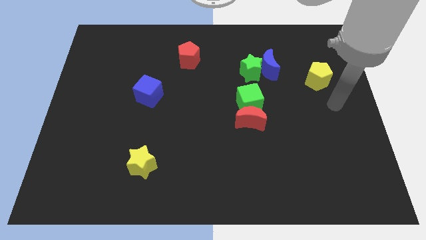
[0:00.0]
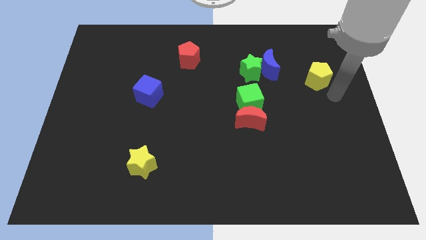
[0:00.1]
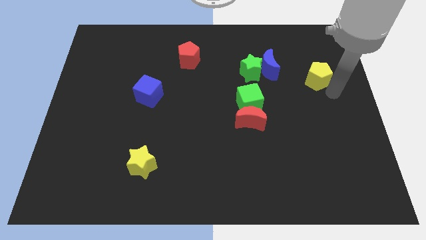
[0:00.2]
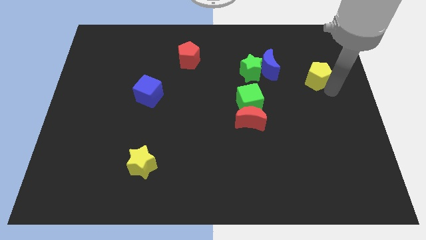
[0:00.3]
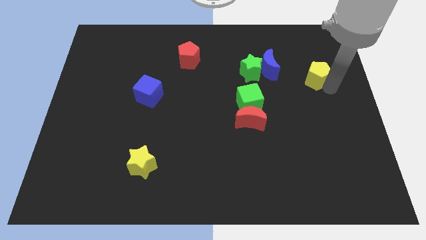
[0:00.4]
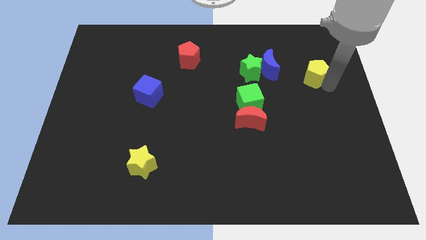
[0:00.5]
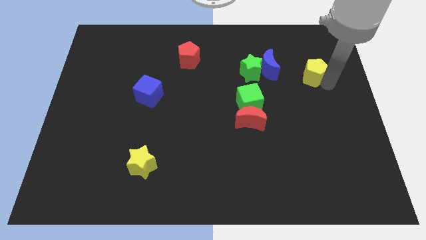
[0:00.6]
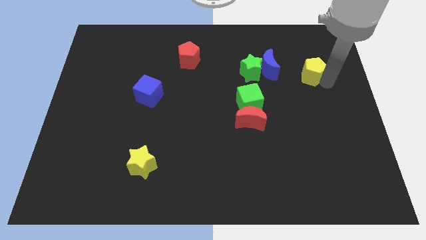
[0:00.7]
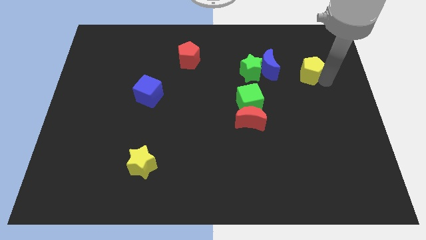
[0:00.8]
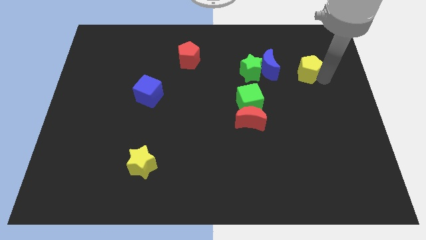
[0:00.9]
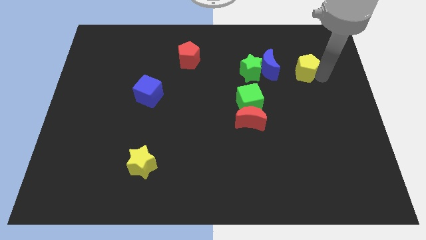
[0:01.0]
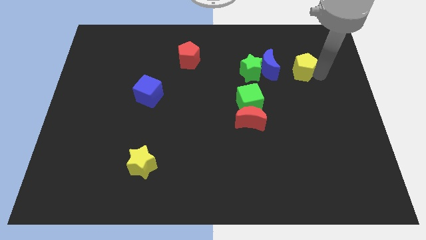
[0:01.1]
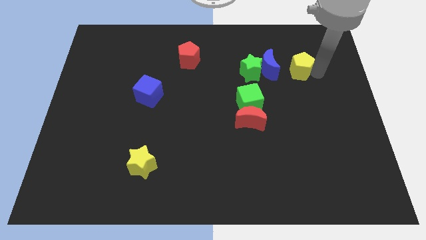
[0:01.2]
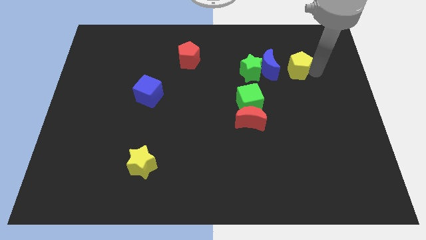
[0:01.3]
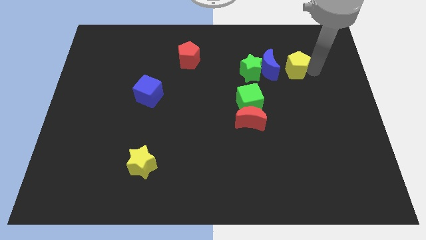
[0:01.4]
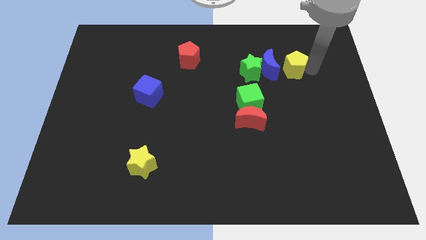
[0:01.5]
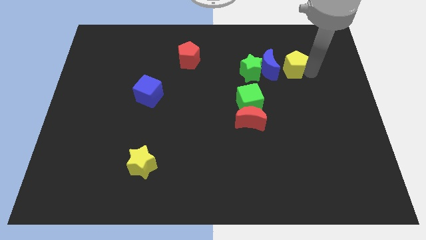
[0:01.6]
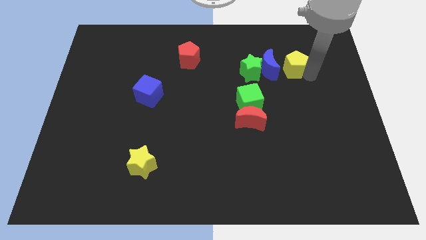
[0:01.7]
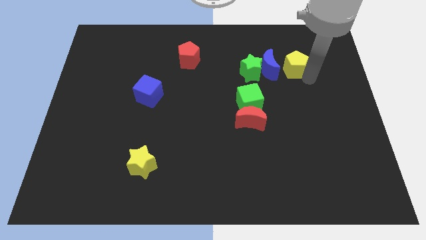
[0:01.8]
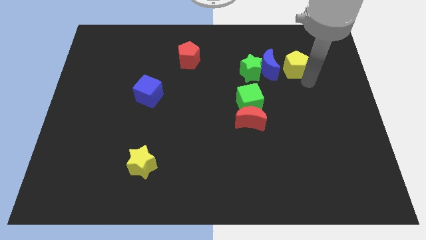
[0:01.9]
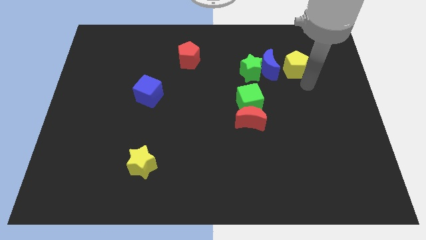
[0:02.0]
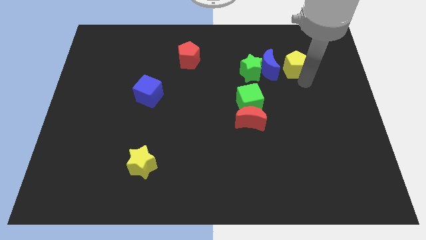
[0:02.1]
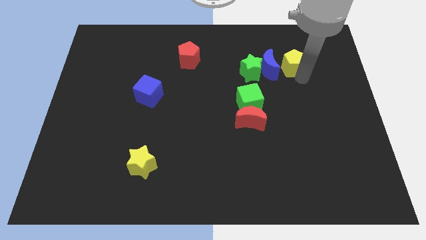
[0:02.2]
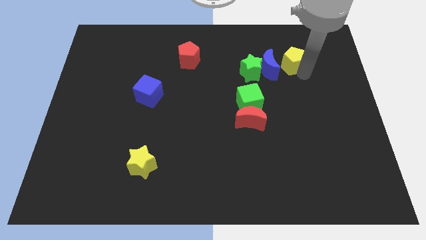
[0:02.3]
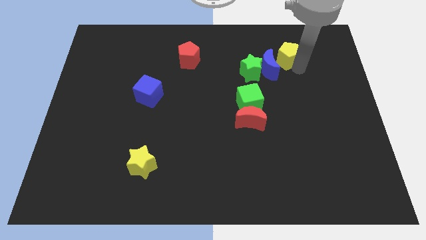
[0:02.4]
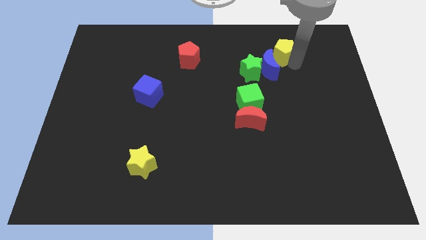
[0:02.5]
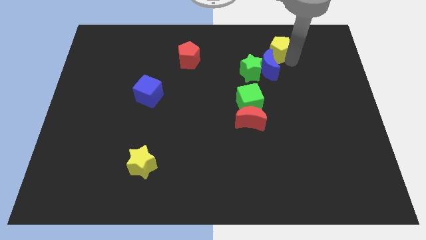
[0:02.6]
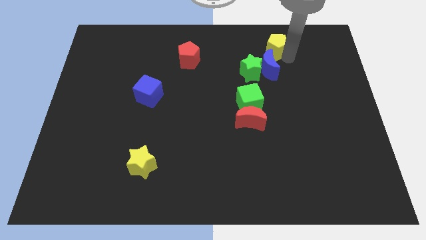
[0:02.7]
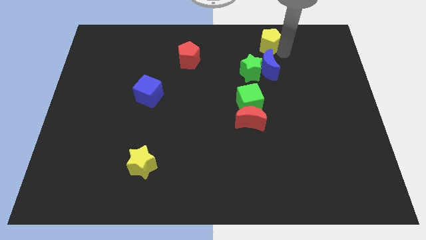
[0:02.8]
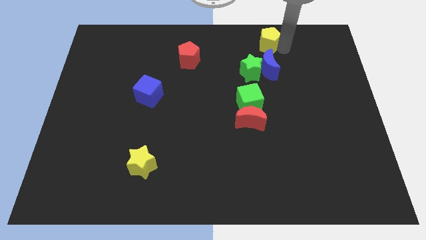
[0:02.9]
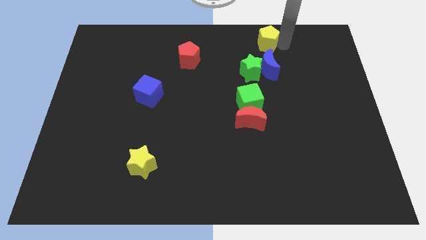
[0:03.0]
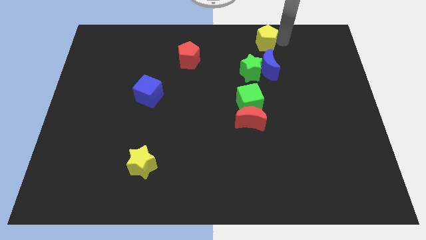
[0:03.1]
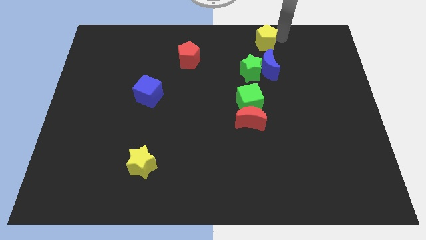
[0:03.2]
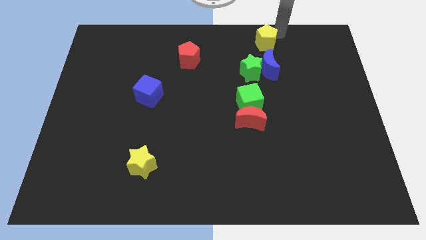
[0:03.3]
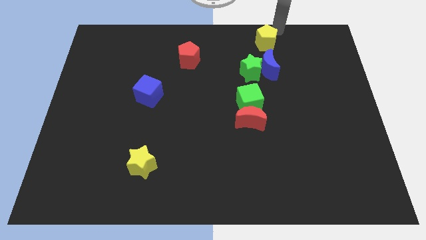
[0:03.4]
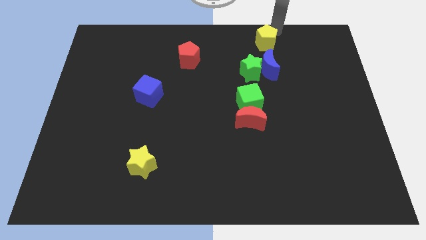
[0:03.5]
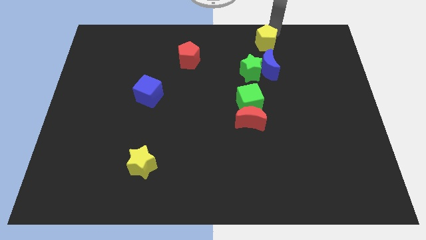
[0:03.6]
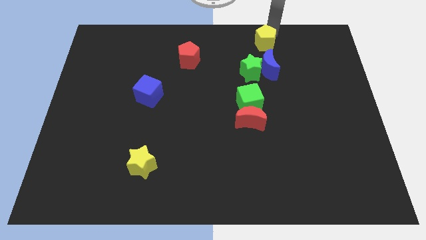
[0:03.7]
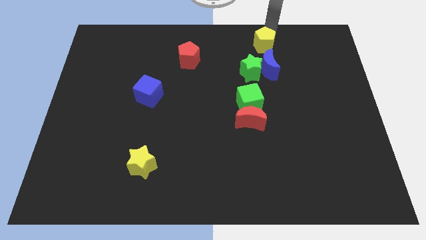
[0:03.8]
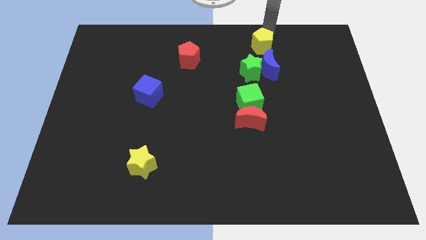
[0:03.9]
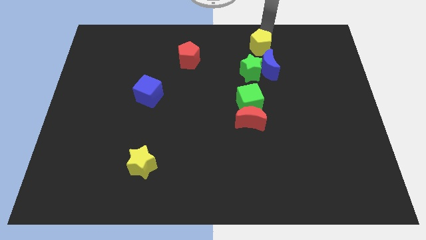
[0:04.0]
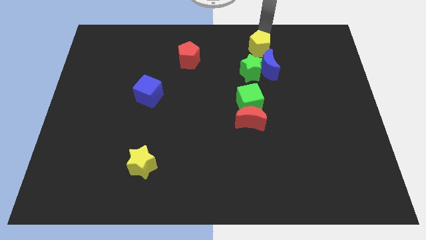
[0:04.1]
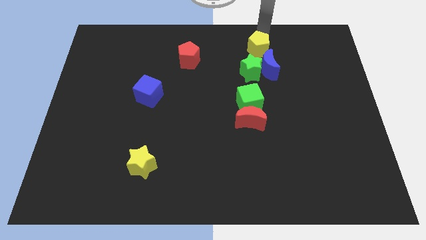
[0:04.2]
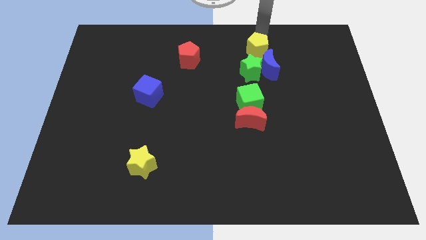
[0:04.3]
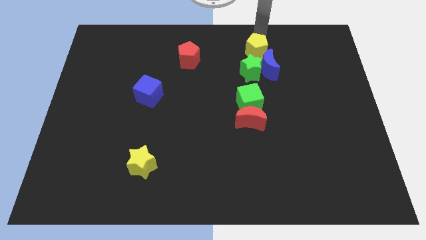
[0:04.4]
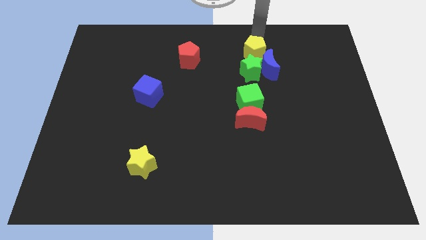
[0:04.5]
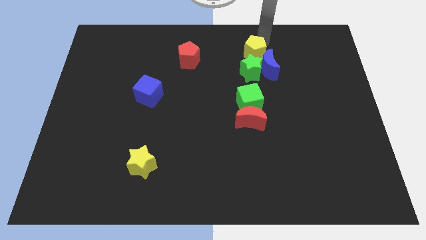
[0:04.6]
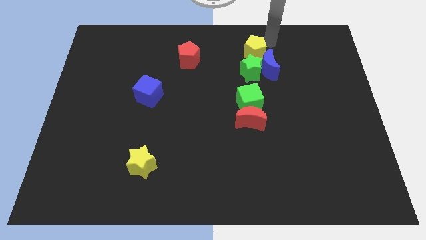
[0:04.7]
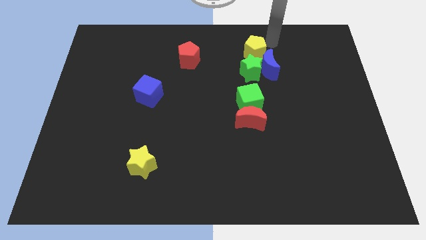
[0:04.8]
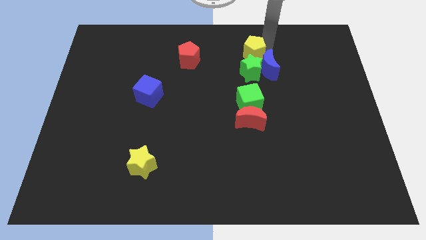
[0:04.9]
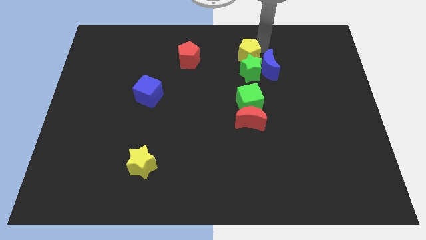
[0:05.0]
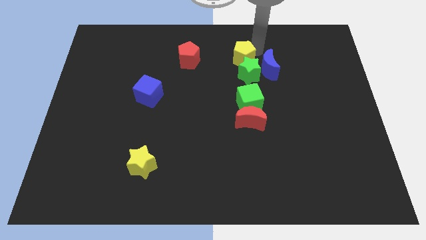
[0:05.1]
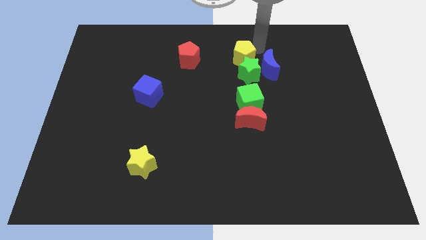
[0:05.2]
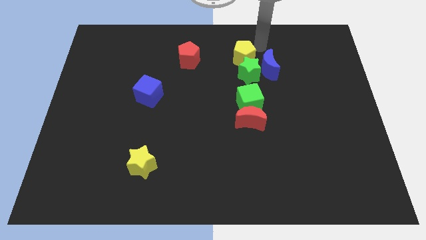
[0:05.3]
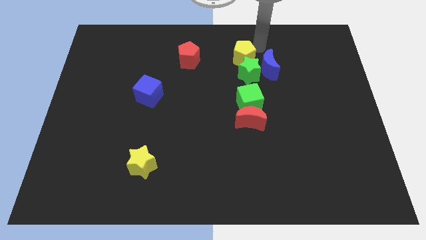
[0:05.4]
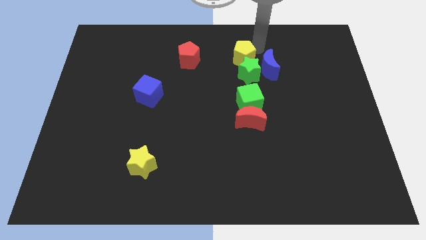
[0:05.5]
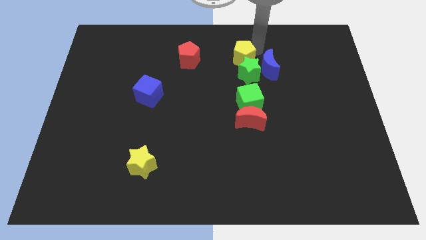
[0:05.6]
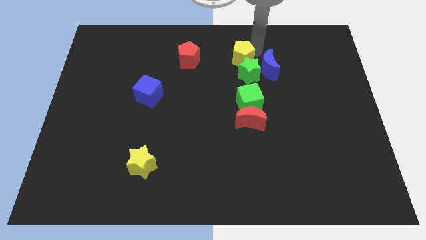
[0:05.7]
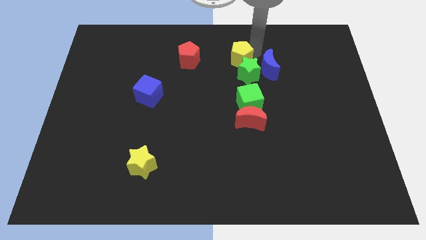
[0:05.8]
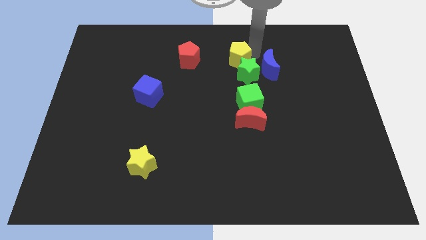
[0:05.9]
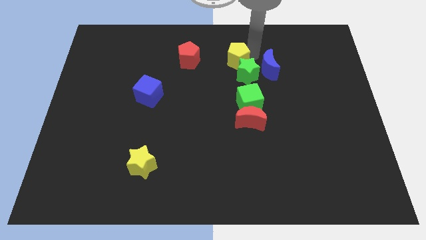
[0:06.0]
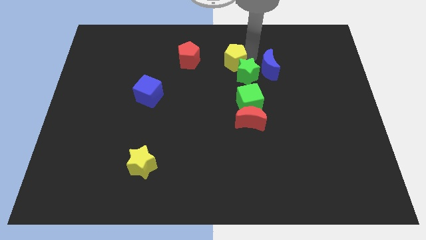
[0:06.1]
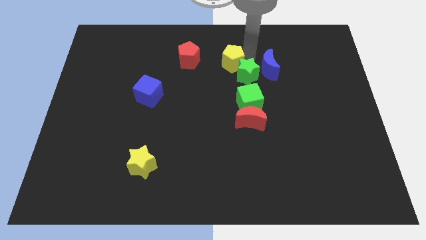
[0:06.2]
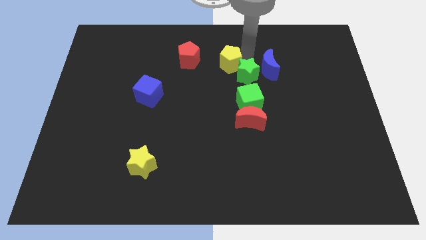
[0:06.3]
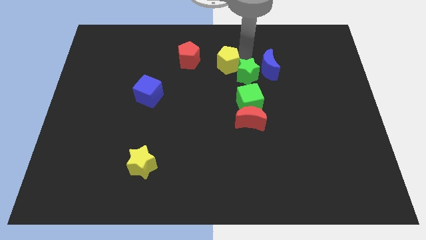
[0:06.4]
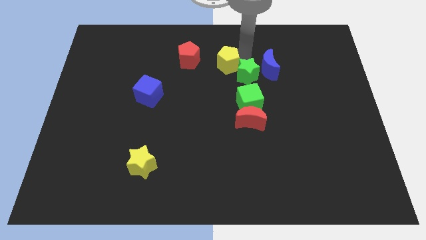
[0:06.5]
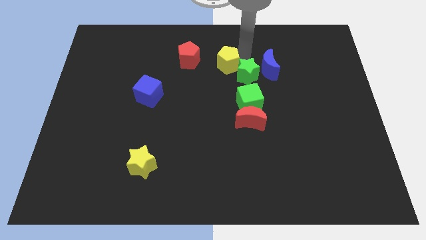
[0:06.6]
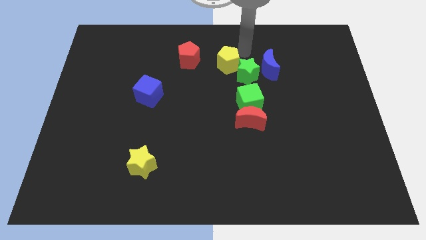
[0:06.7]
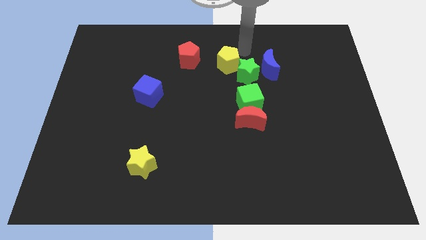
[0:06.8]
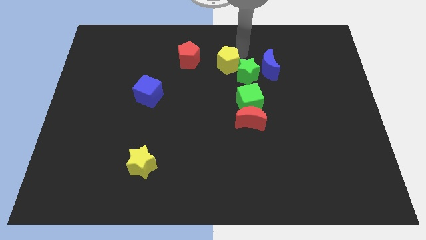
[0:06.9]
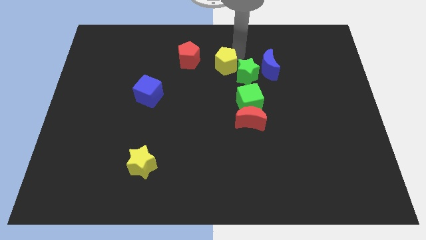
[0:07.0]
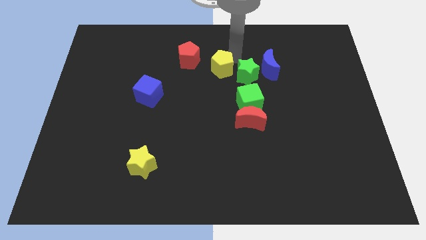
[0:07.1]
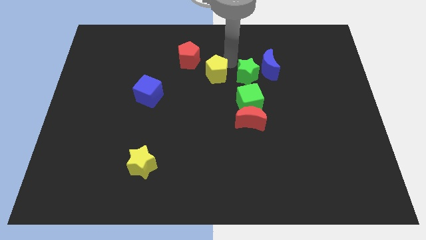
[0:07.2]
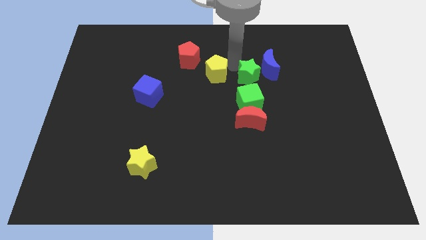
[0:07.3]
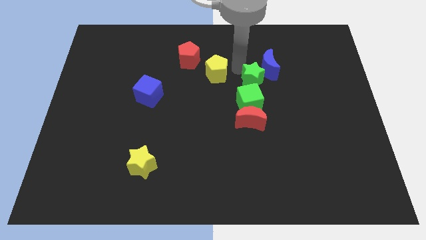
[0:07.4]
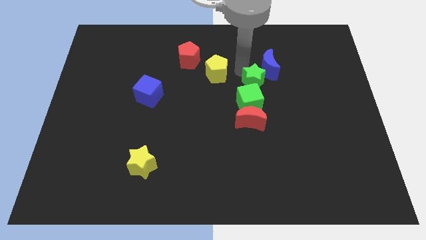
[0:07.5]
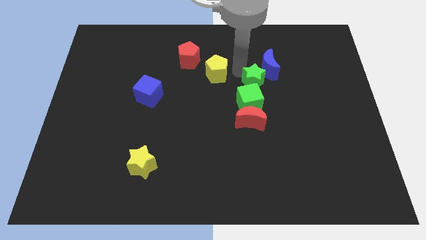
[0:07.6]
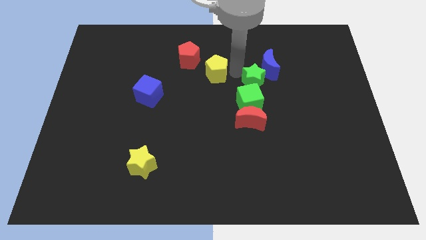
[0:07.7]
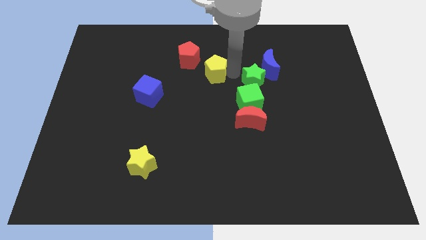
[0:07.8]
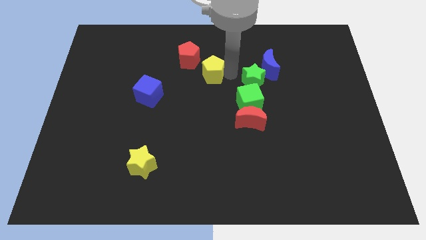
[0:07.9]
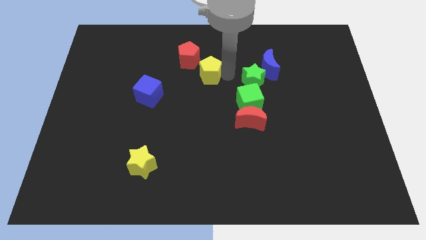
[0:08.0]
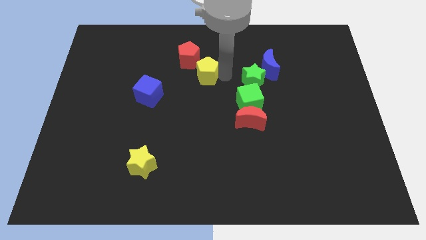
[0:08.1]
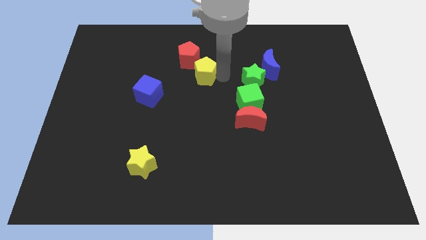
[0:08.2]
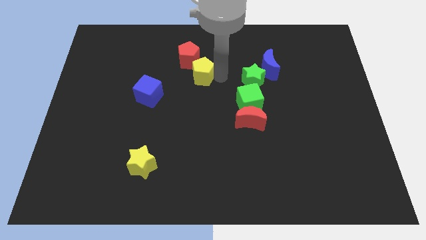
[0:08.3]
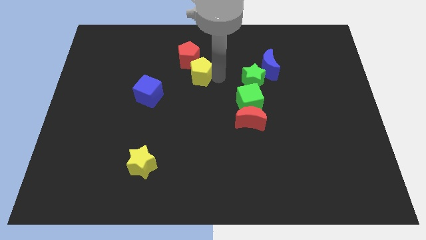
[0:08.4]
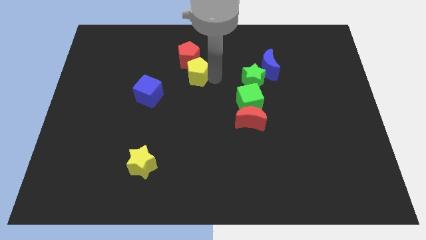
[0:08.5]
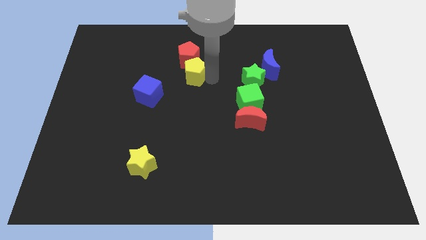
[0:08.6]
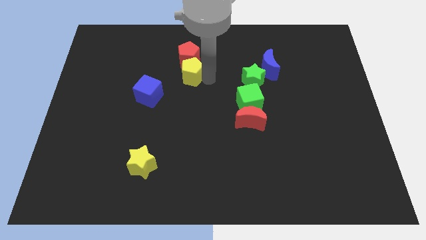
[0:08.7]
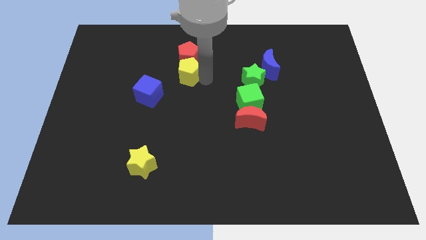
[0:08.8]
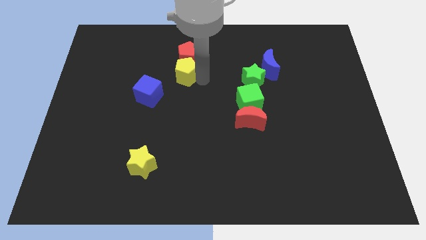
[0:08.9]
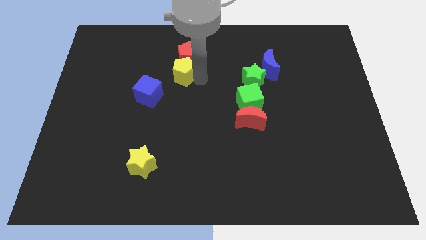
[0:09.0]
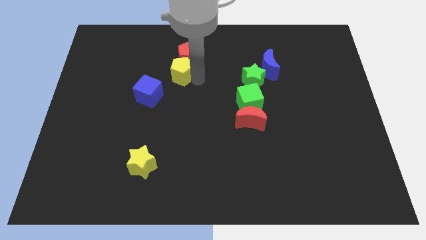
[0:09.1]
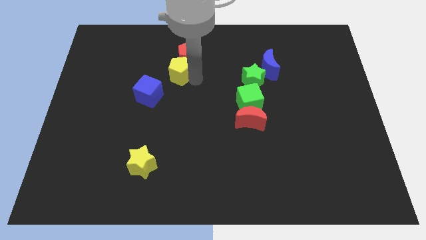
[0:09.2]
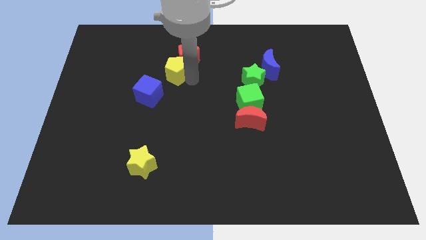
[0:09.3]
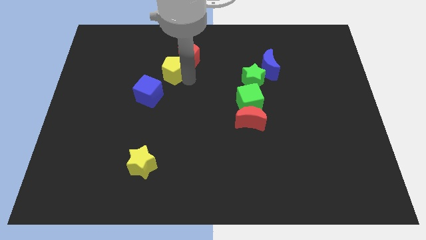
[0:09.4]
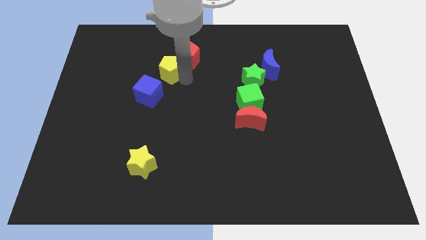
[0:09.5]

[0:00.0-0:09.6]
put the yellow pentagon above the blue cube
